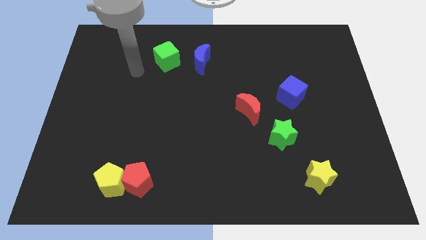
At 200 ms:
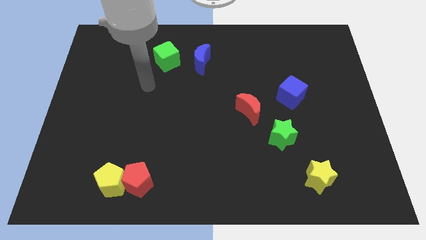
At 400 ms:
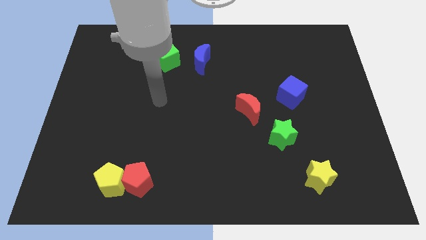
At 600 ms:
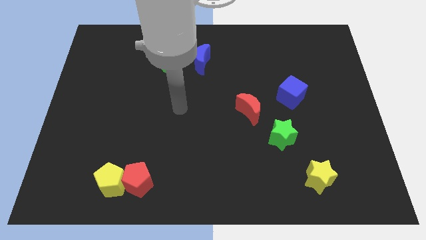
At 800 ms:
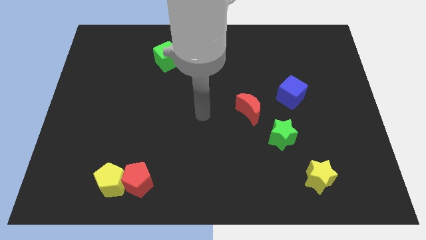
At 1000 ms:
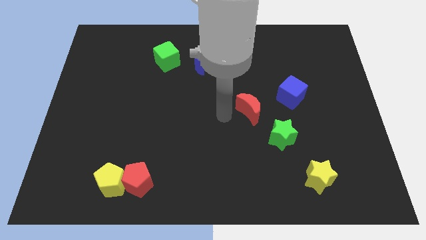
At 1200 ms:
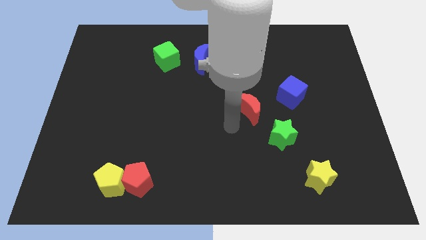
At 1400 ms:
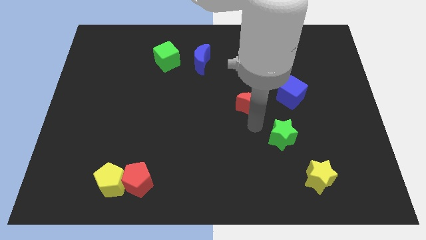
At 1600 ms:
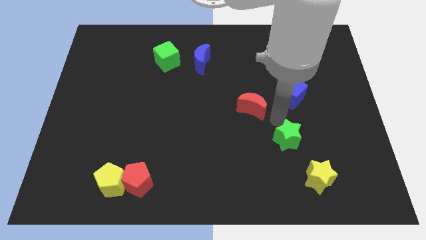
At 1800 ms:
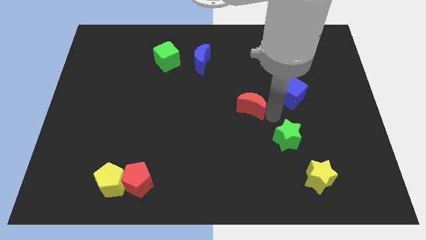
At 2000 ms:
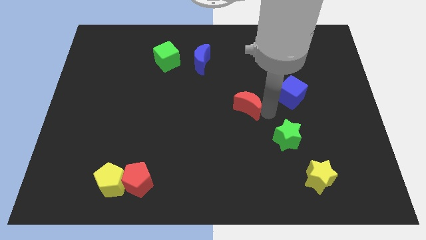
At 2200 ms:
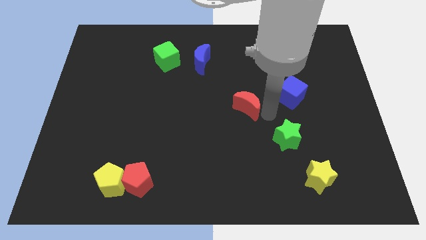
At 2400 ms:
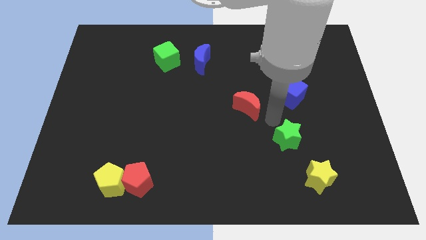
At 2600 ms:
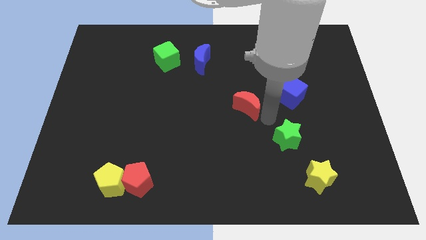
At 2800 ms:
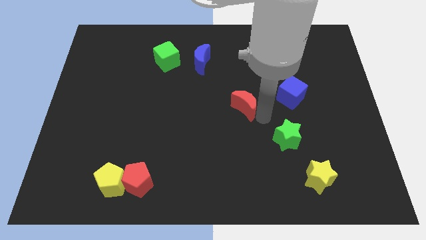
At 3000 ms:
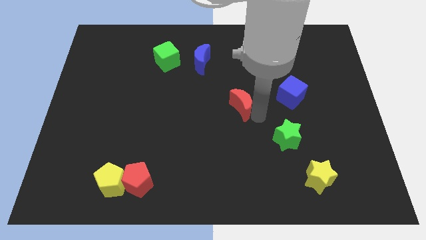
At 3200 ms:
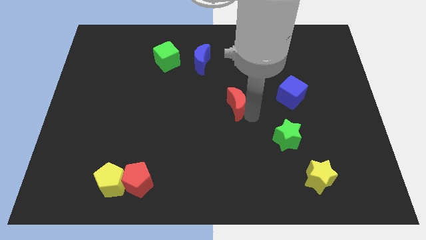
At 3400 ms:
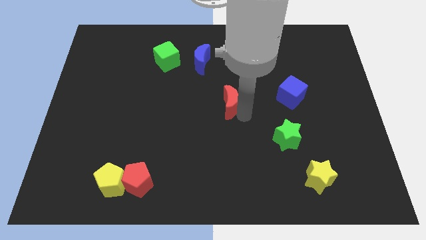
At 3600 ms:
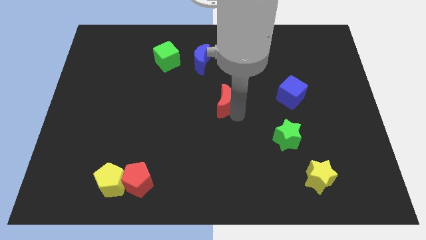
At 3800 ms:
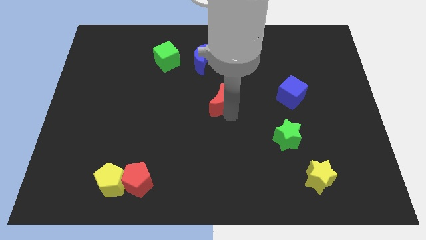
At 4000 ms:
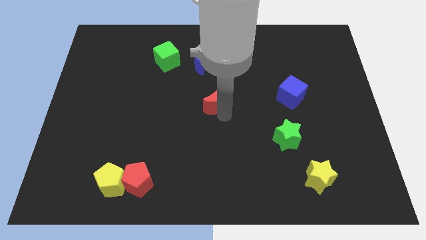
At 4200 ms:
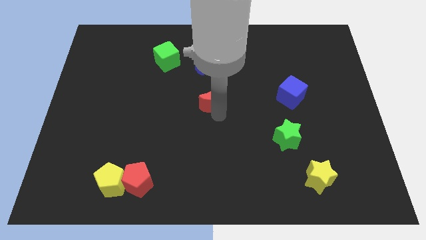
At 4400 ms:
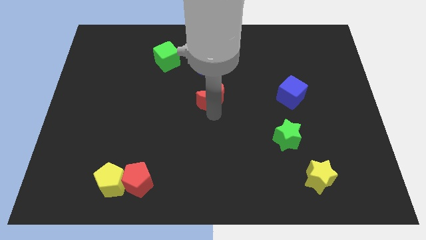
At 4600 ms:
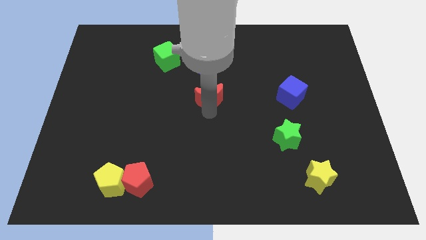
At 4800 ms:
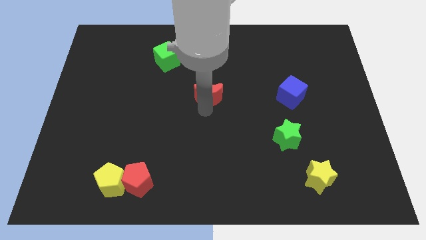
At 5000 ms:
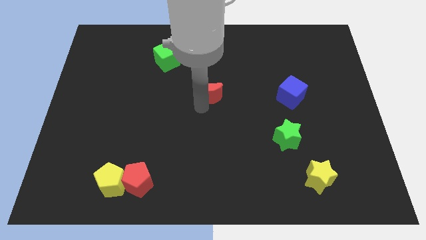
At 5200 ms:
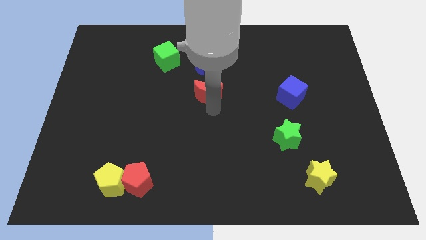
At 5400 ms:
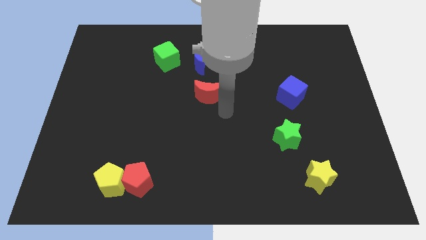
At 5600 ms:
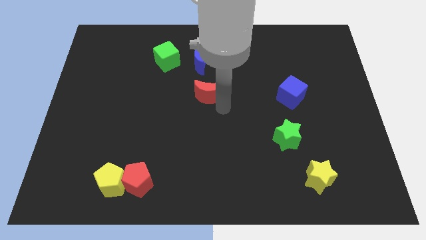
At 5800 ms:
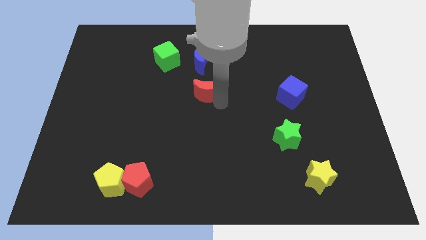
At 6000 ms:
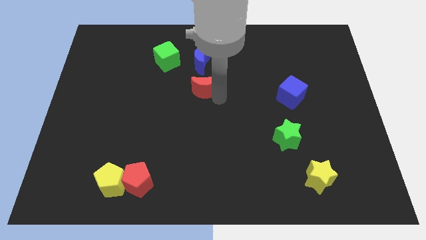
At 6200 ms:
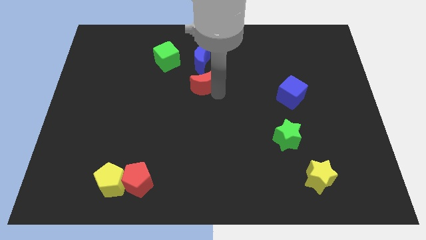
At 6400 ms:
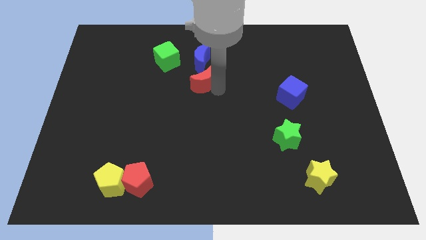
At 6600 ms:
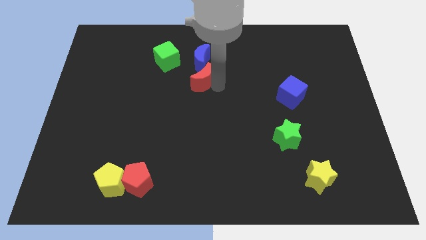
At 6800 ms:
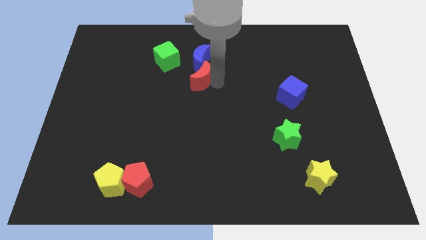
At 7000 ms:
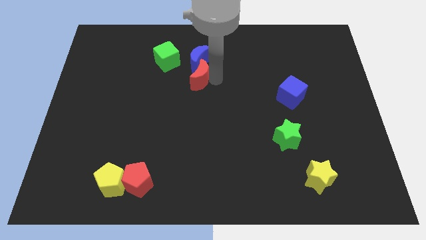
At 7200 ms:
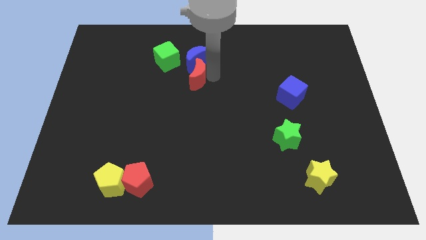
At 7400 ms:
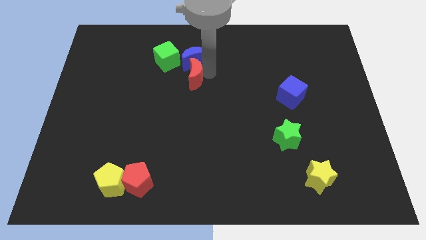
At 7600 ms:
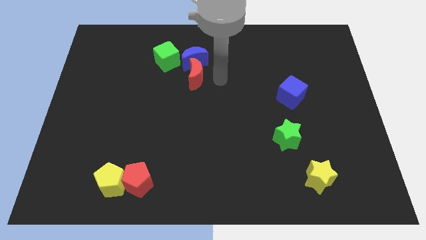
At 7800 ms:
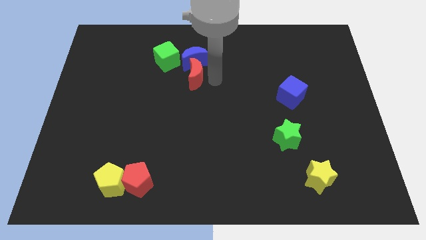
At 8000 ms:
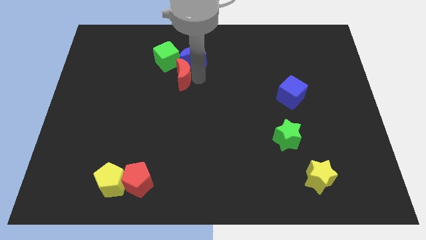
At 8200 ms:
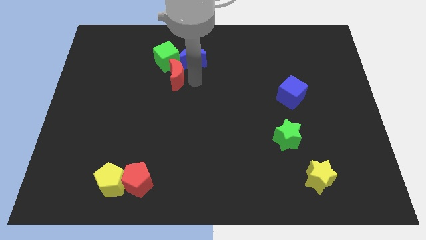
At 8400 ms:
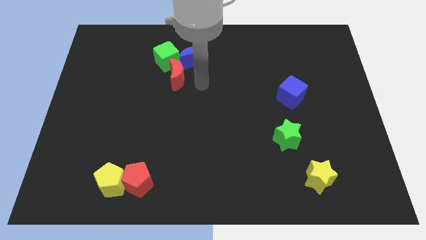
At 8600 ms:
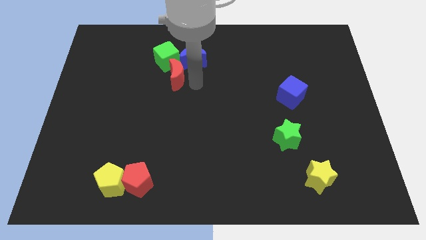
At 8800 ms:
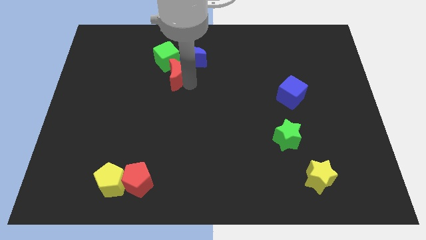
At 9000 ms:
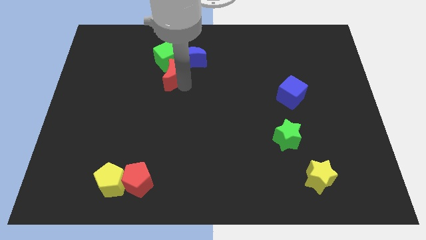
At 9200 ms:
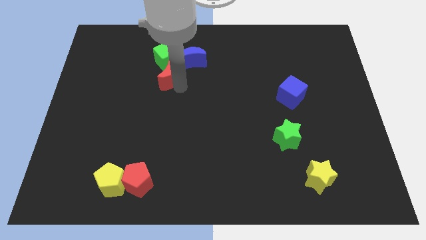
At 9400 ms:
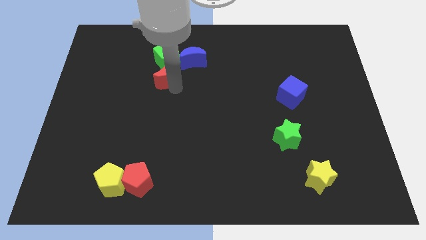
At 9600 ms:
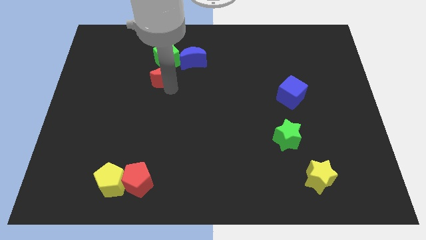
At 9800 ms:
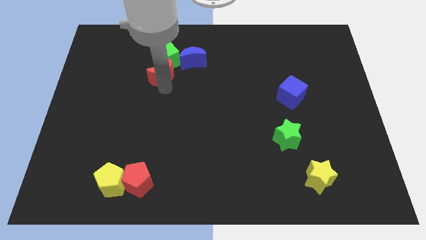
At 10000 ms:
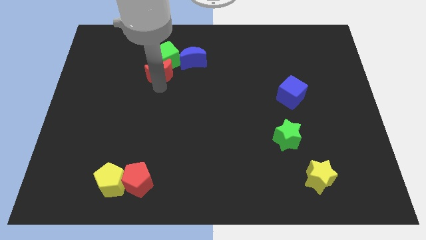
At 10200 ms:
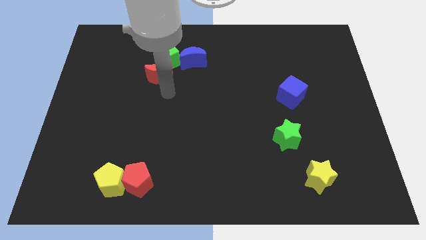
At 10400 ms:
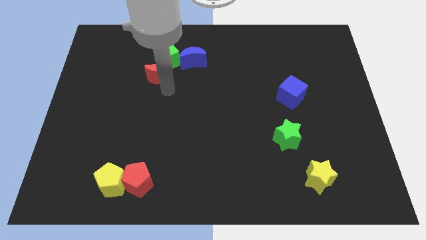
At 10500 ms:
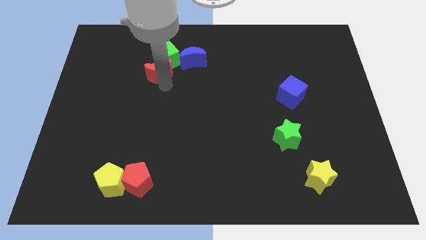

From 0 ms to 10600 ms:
push the red moon to the left of the blue moon
